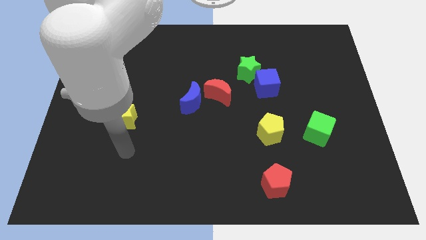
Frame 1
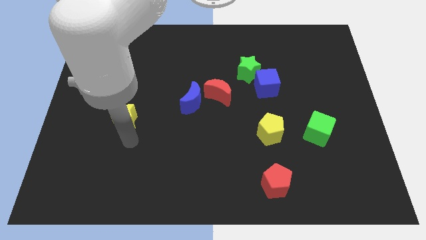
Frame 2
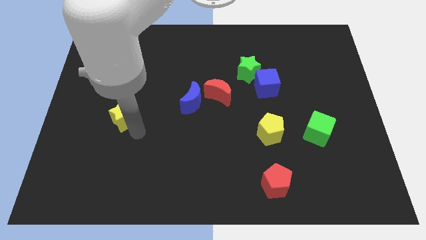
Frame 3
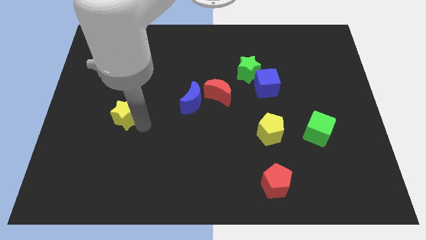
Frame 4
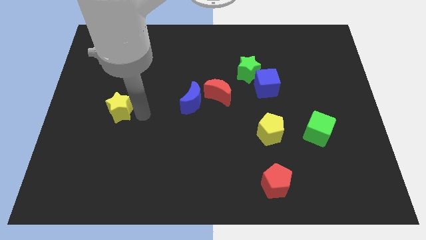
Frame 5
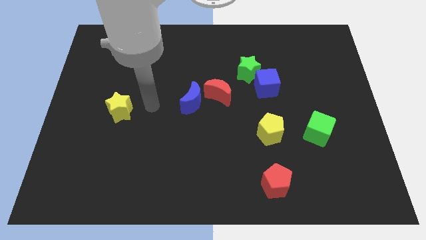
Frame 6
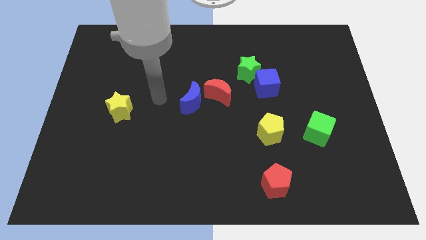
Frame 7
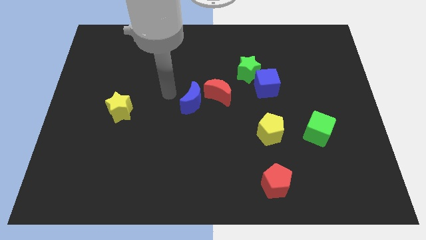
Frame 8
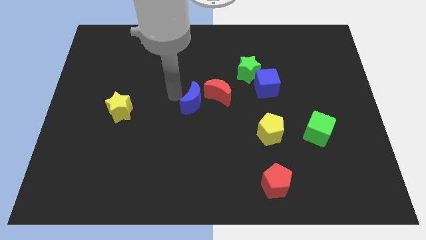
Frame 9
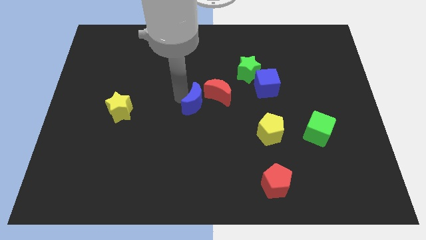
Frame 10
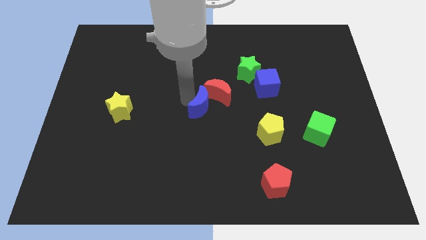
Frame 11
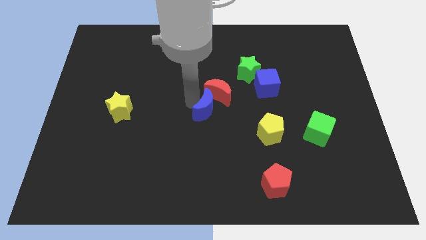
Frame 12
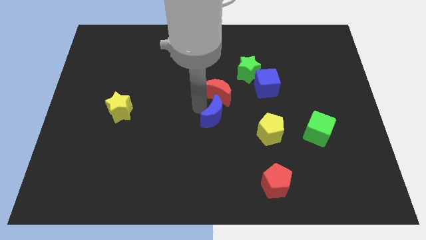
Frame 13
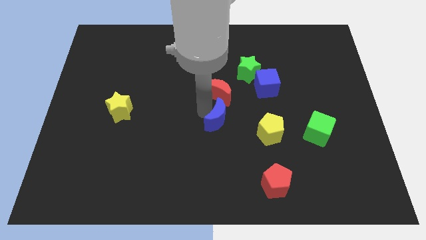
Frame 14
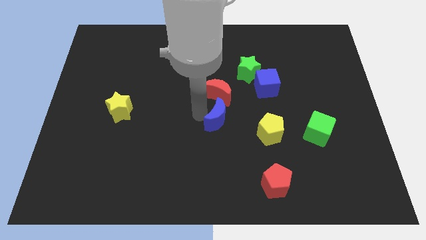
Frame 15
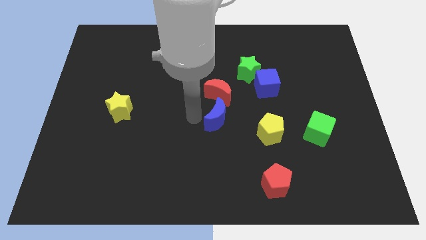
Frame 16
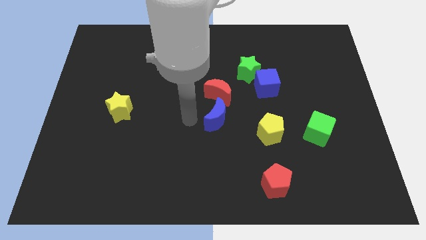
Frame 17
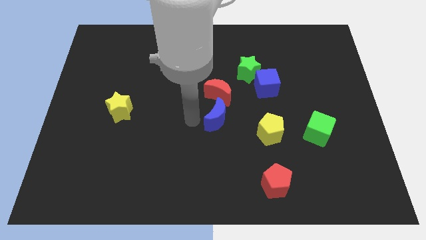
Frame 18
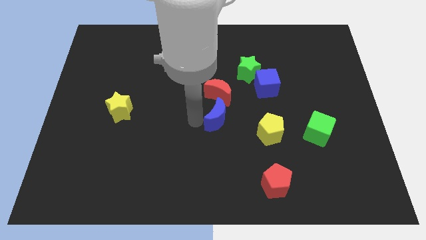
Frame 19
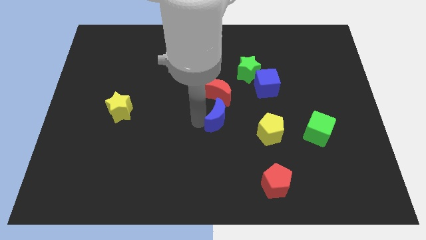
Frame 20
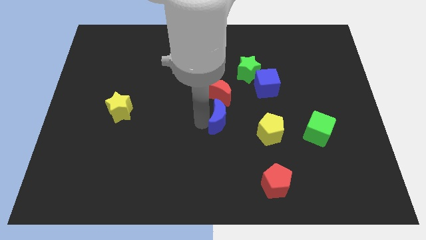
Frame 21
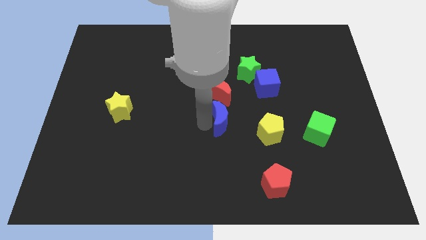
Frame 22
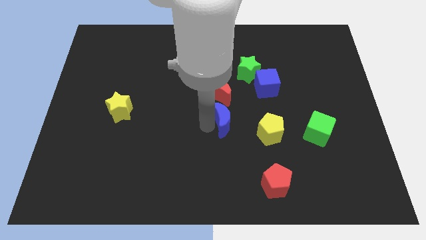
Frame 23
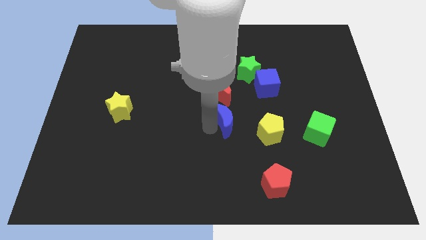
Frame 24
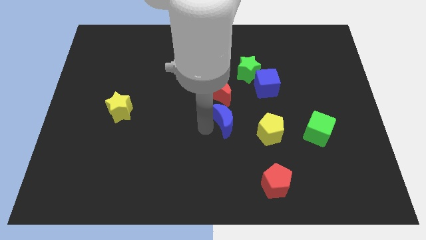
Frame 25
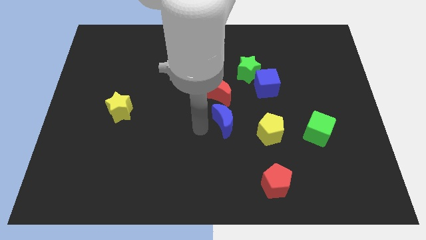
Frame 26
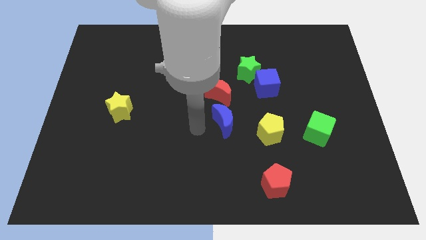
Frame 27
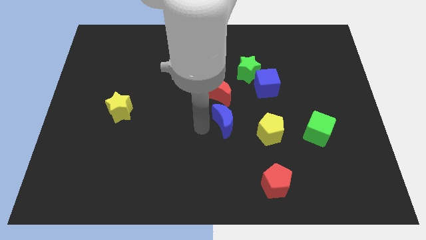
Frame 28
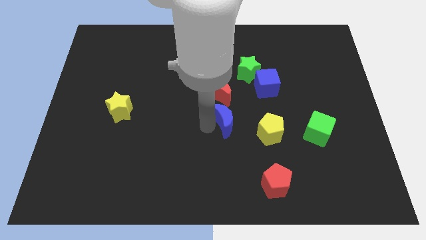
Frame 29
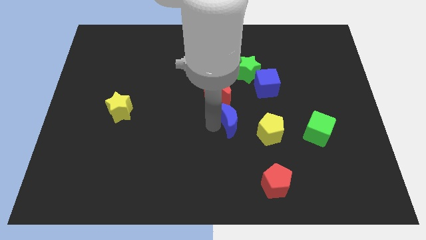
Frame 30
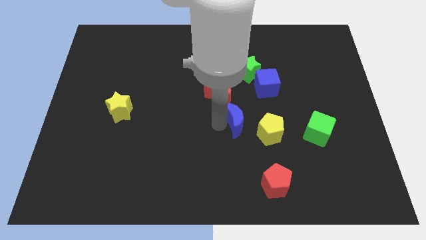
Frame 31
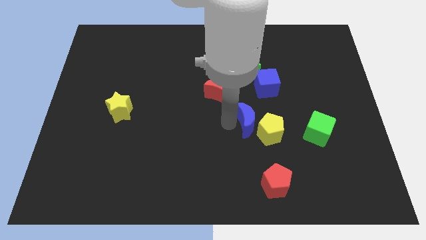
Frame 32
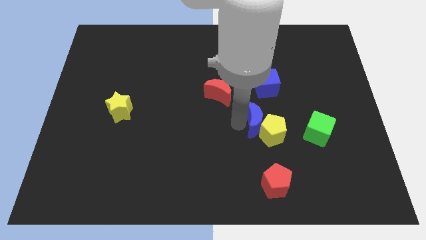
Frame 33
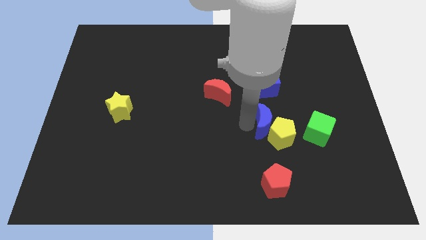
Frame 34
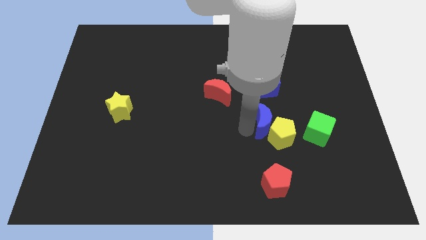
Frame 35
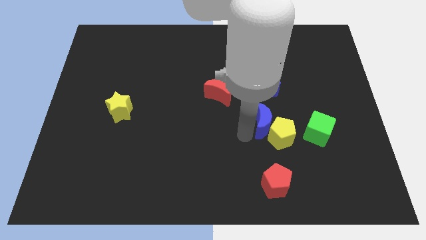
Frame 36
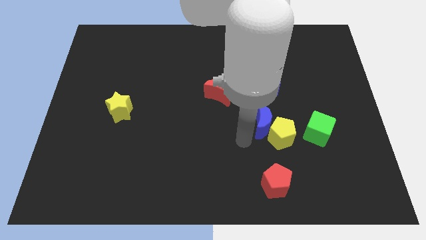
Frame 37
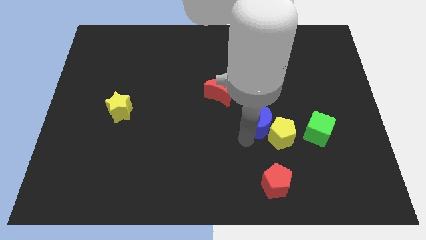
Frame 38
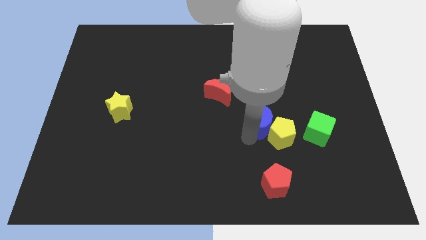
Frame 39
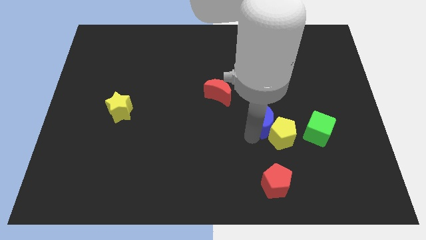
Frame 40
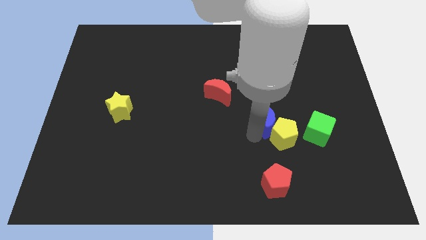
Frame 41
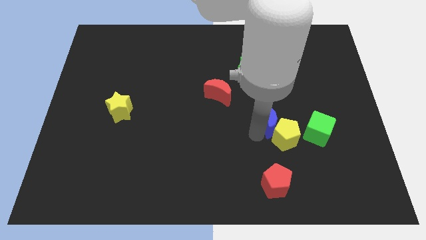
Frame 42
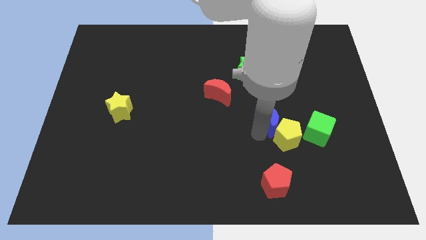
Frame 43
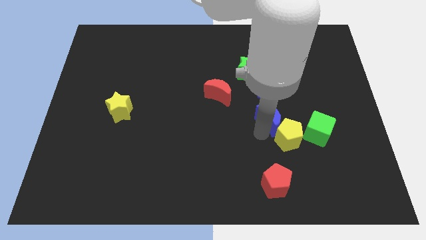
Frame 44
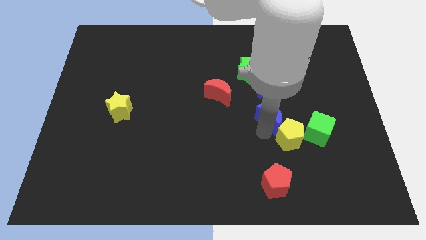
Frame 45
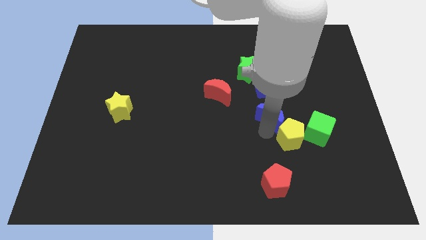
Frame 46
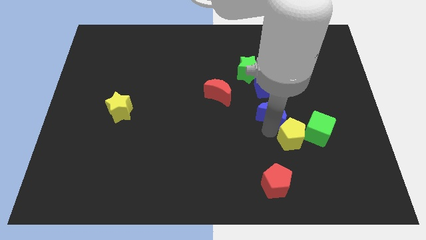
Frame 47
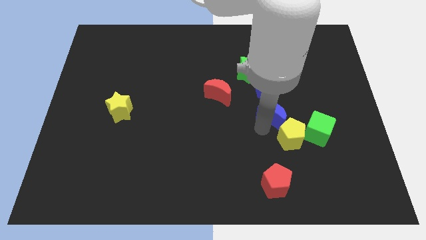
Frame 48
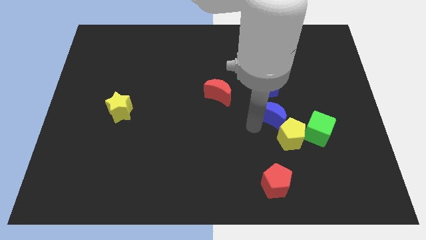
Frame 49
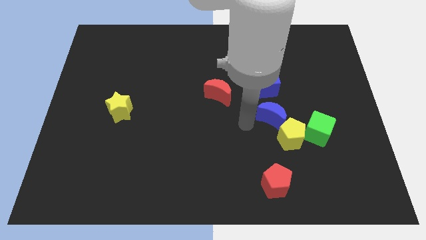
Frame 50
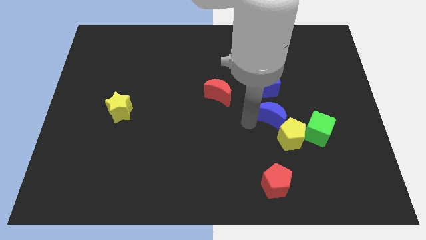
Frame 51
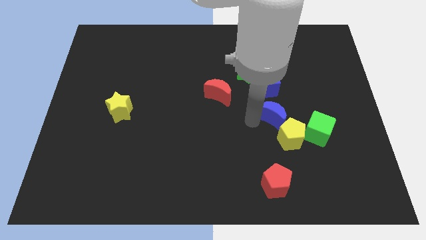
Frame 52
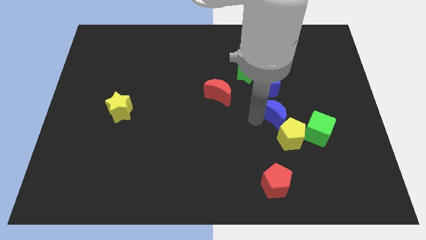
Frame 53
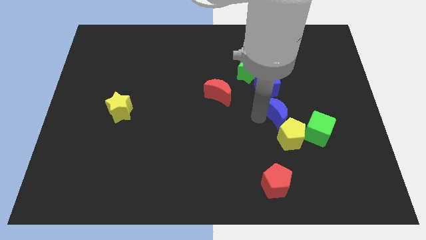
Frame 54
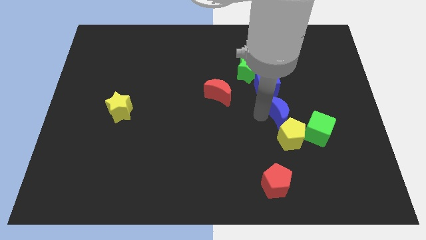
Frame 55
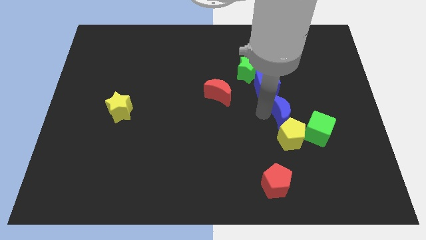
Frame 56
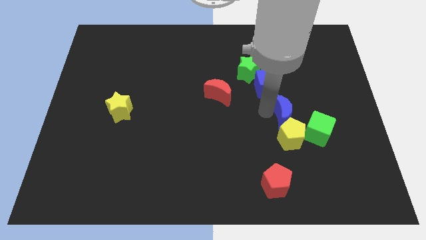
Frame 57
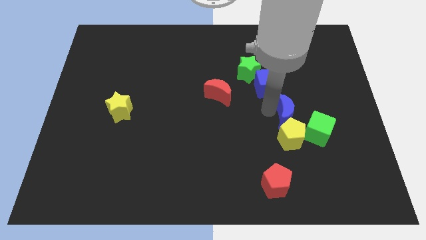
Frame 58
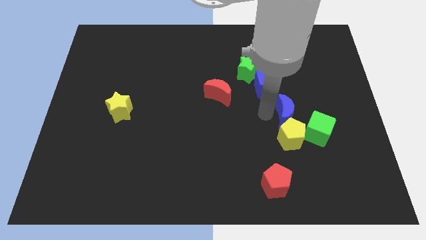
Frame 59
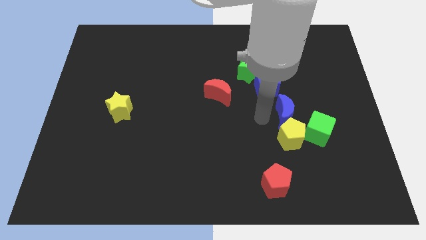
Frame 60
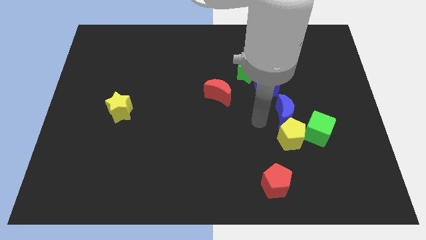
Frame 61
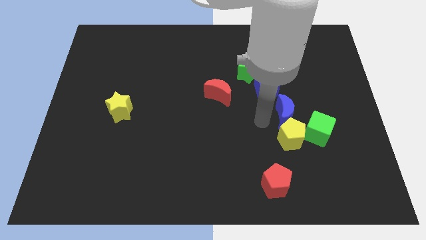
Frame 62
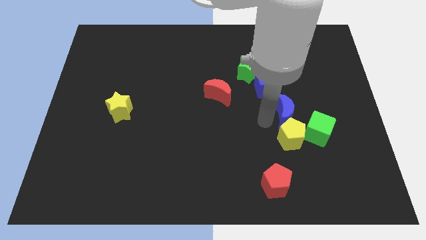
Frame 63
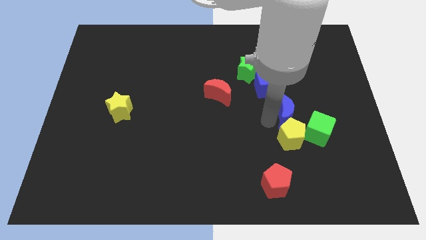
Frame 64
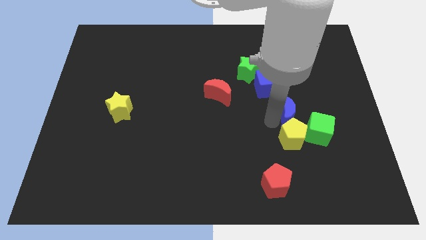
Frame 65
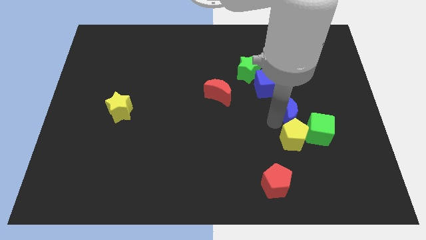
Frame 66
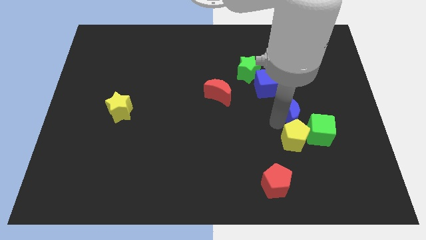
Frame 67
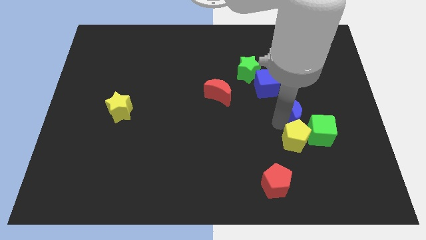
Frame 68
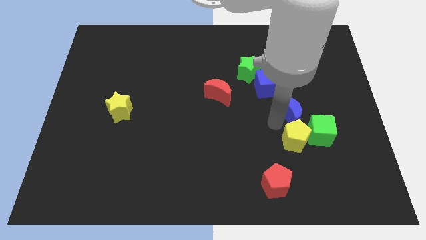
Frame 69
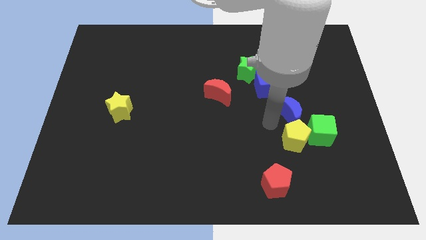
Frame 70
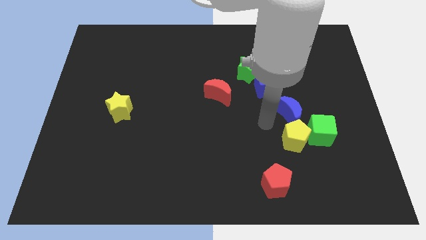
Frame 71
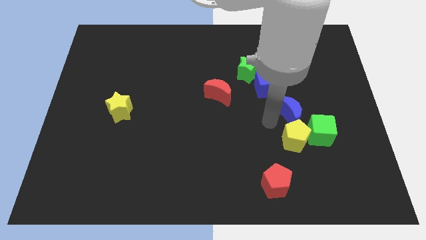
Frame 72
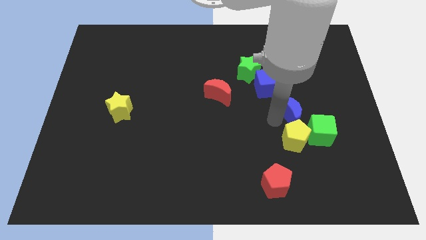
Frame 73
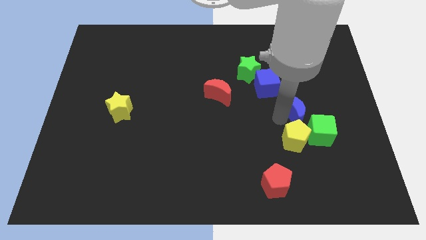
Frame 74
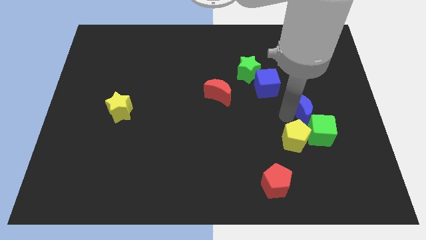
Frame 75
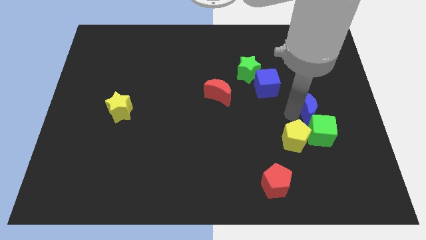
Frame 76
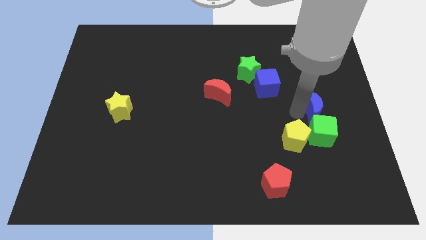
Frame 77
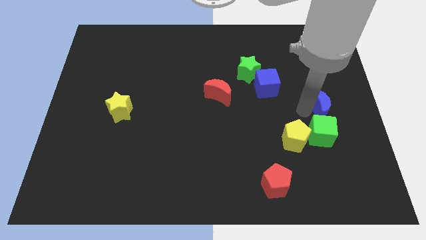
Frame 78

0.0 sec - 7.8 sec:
move the blue moon to the center right
